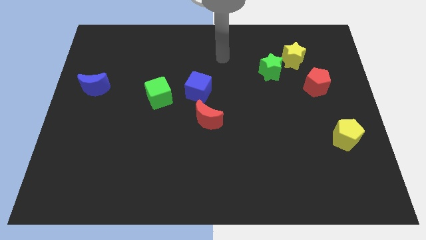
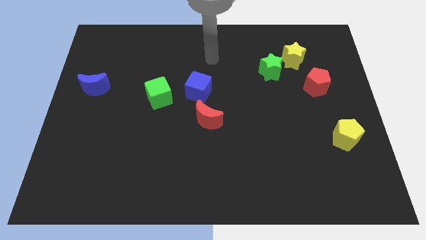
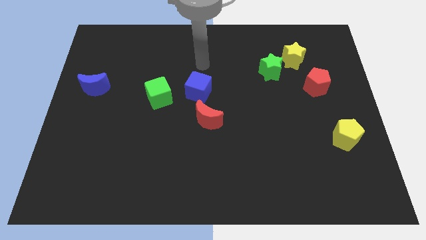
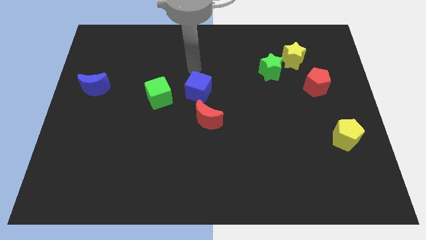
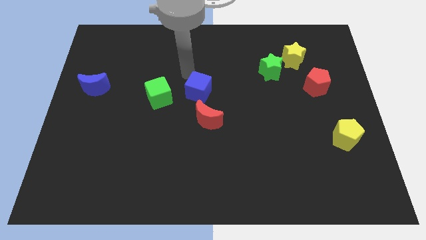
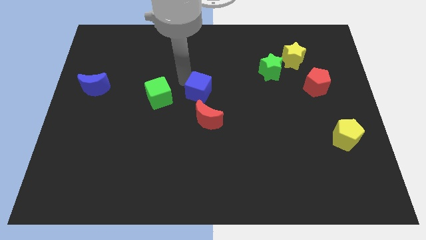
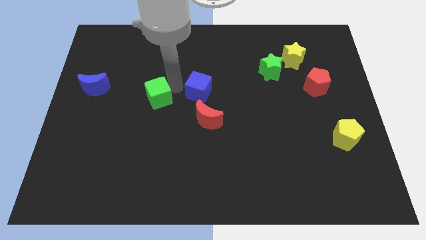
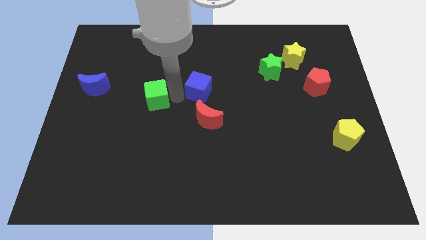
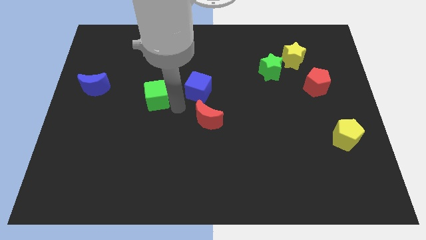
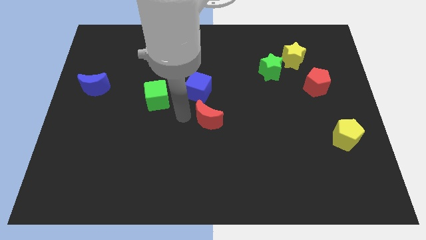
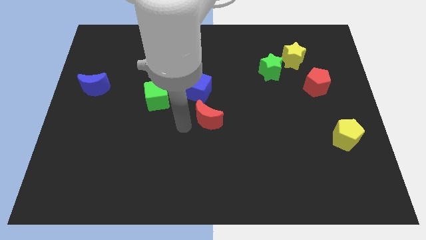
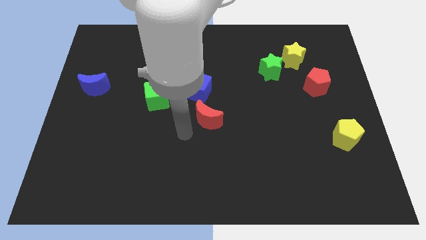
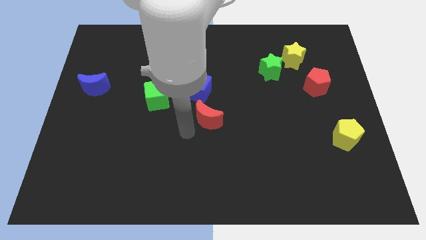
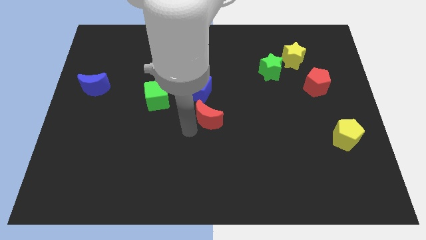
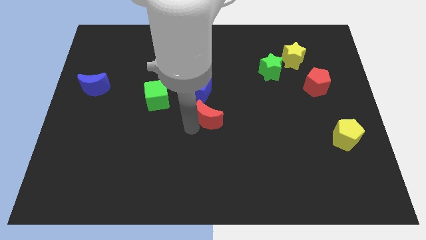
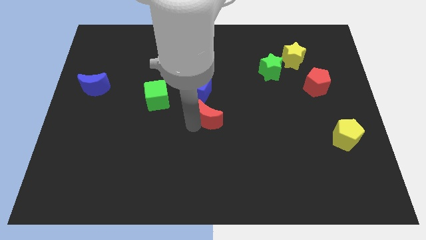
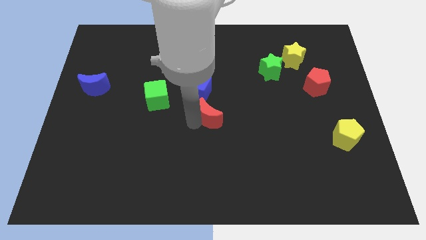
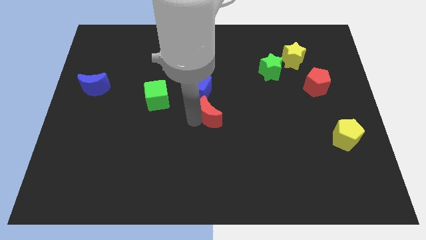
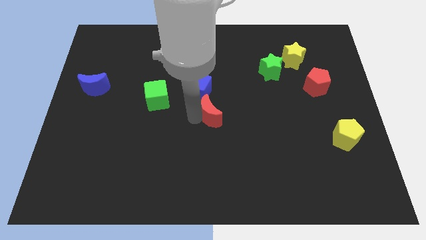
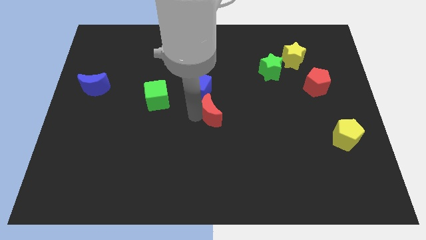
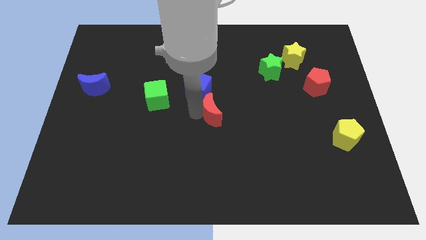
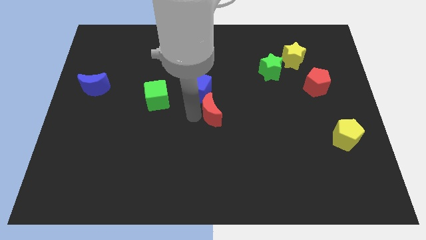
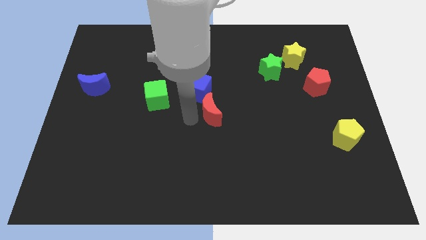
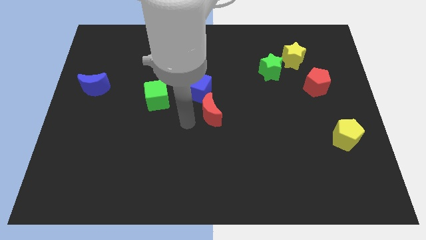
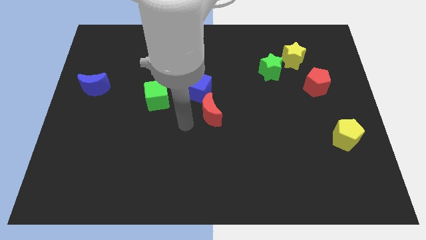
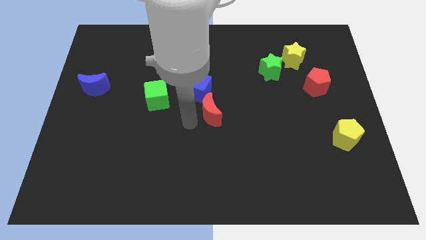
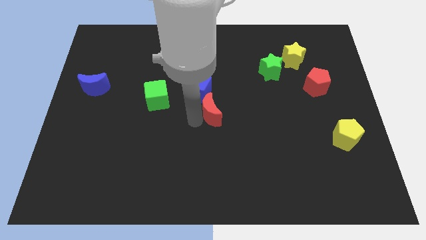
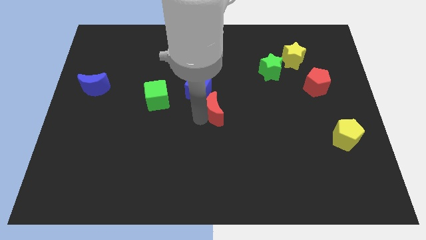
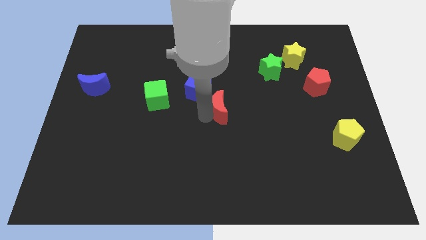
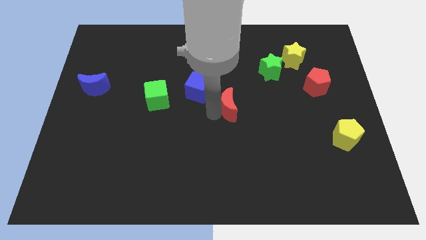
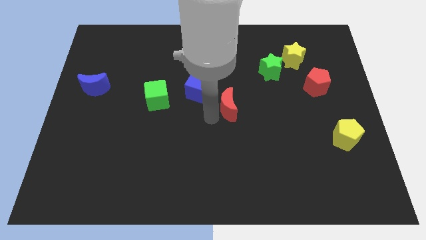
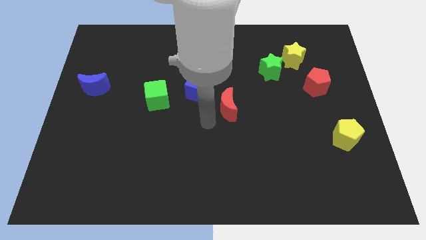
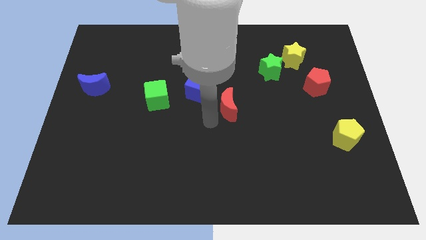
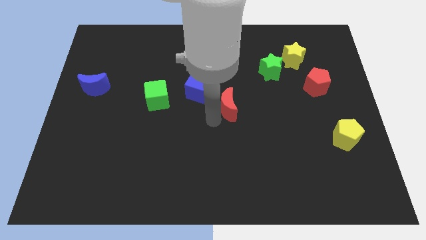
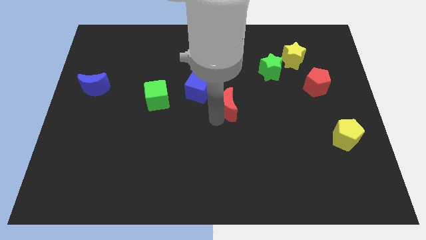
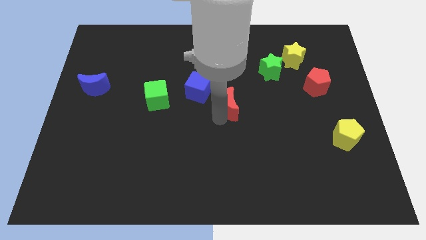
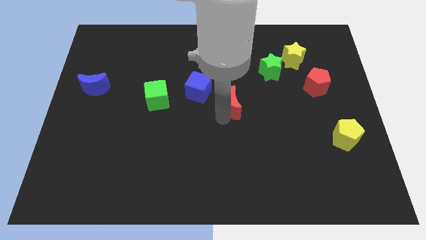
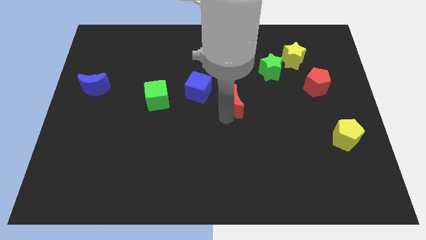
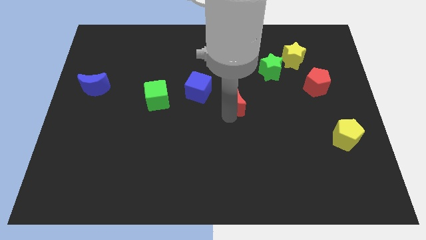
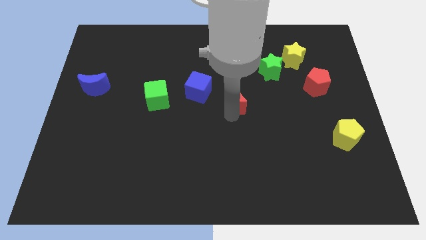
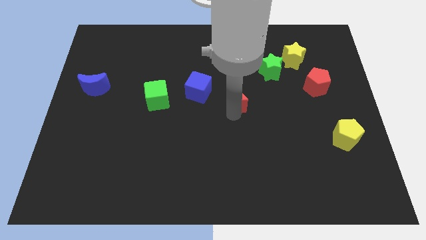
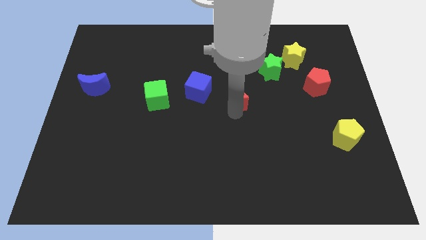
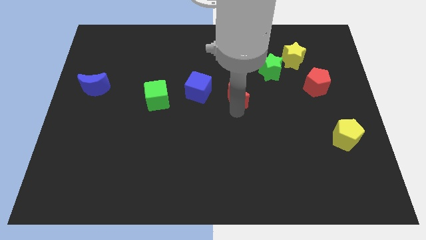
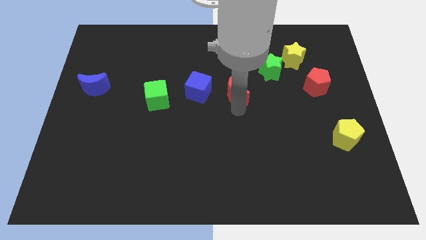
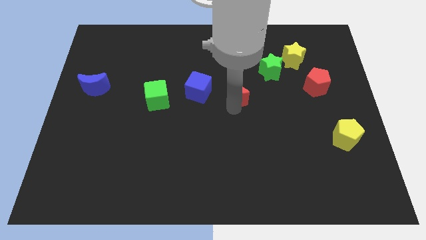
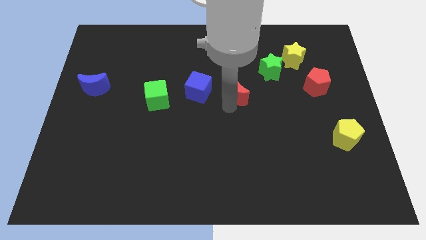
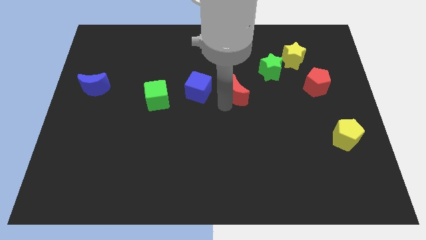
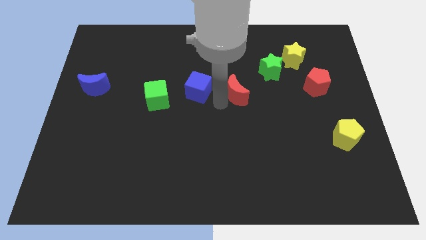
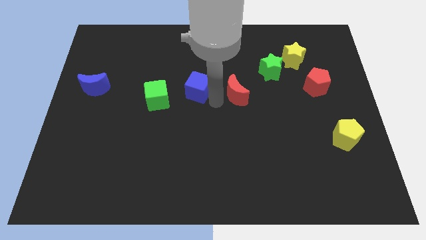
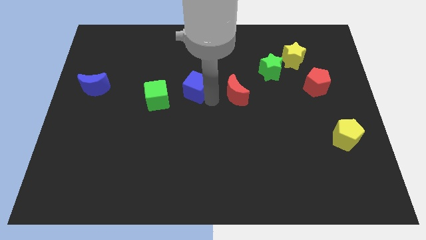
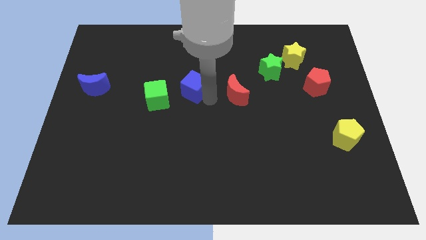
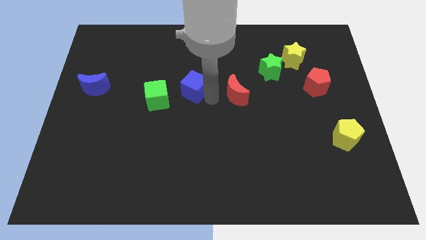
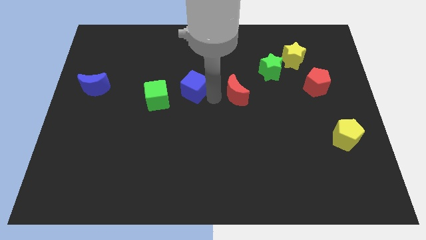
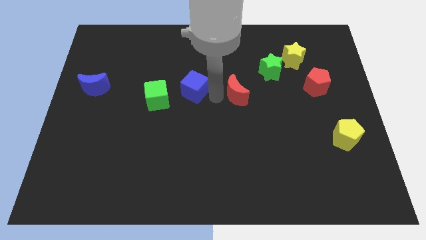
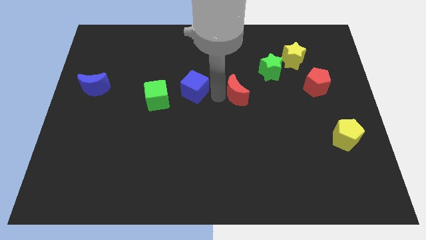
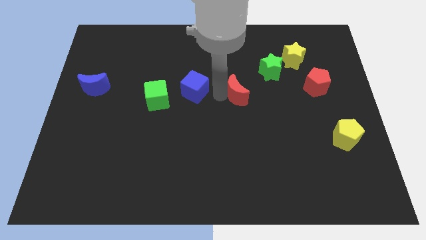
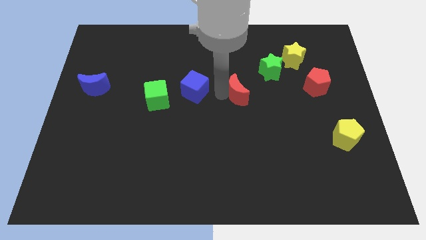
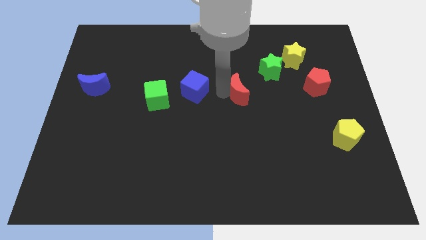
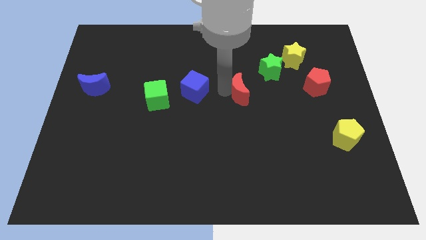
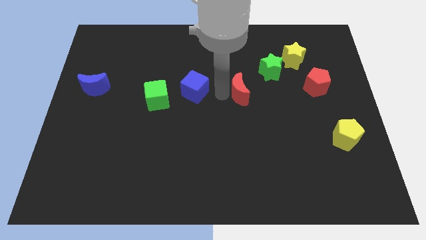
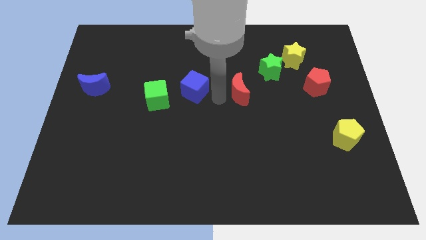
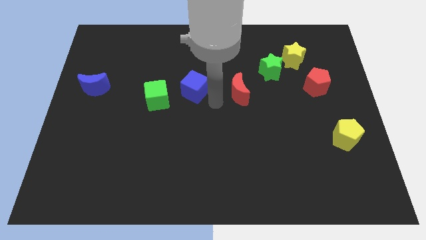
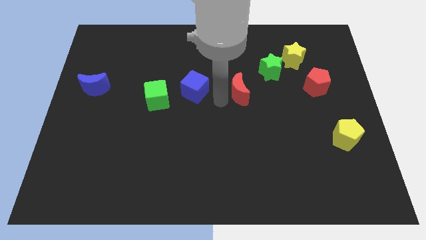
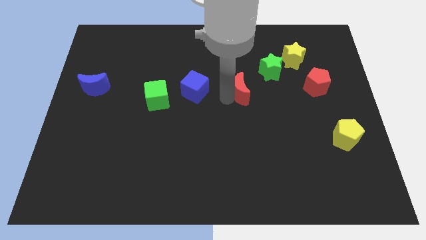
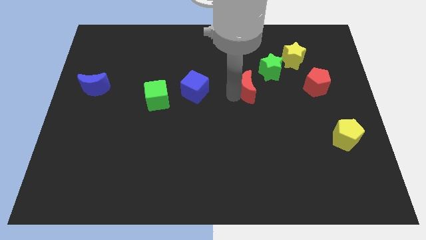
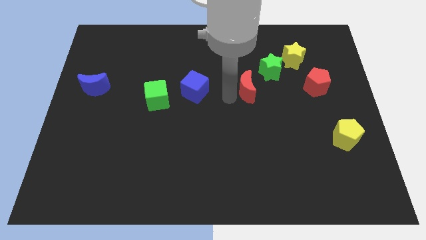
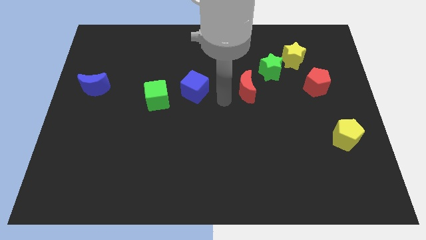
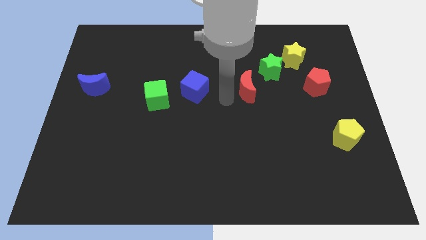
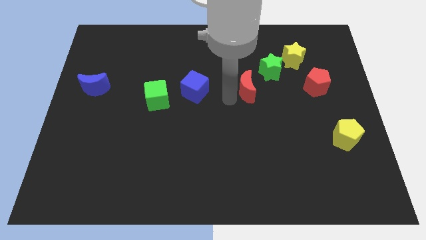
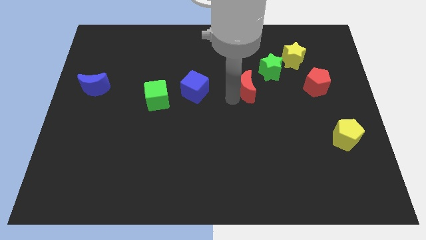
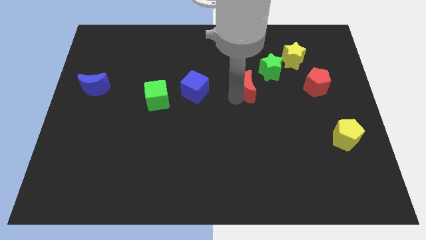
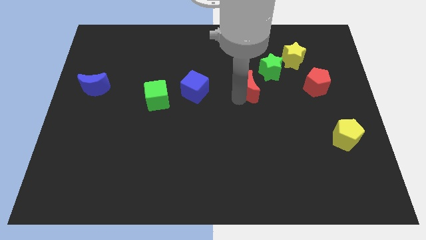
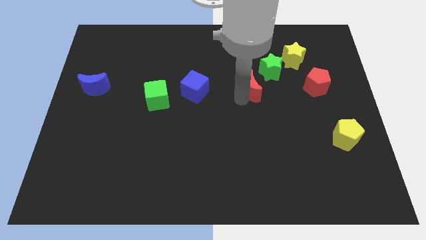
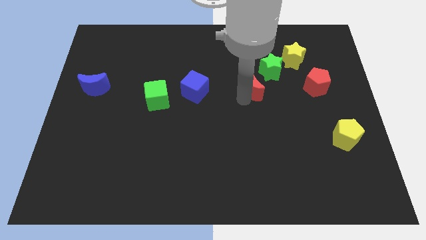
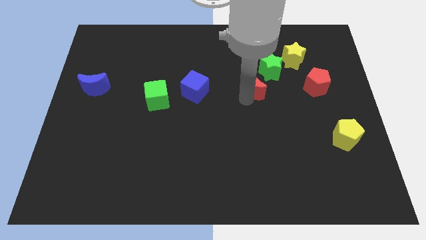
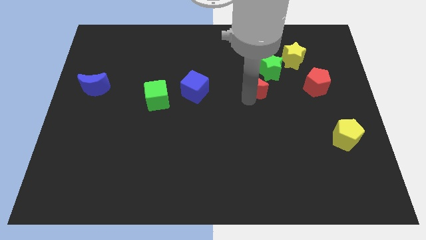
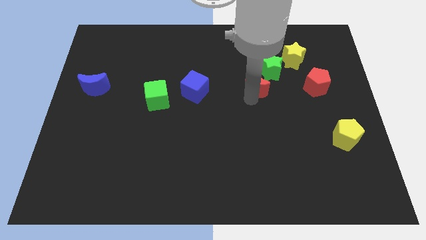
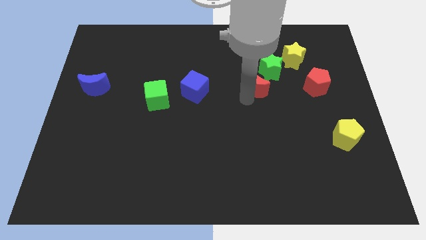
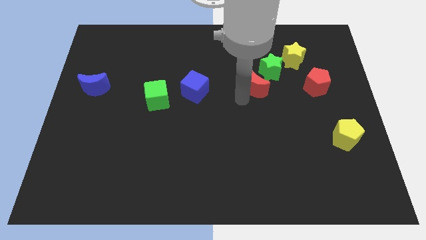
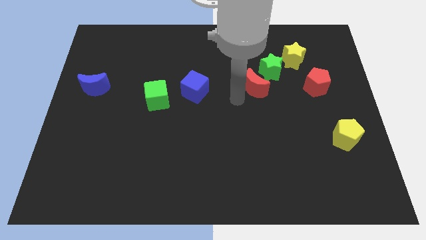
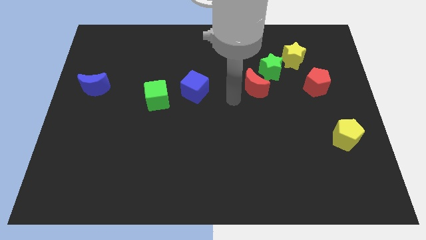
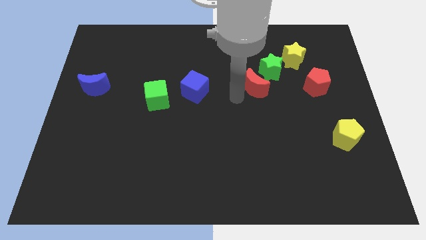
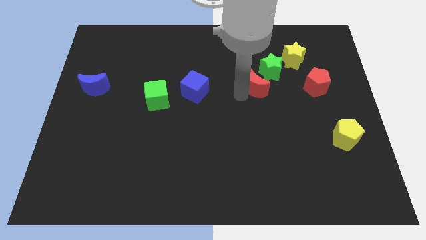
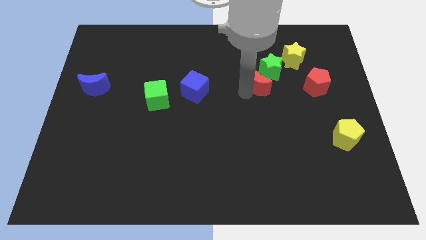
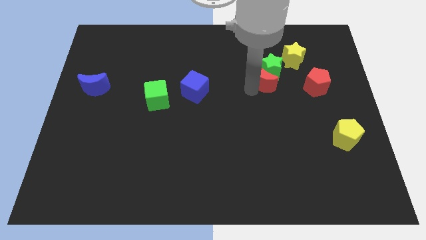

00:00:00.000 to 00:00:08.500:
slide the red moon diagonally down and to the left of the yellow star
